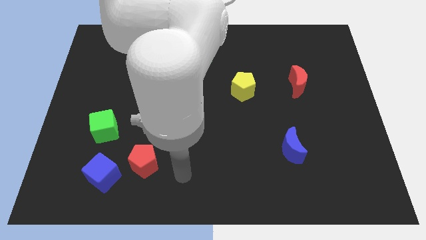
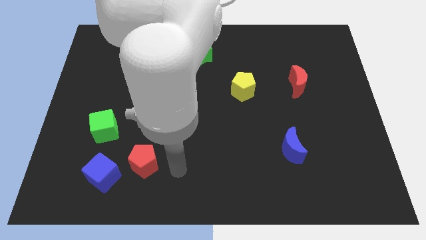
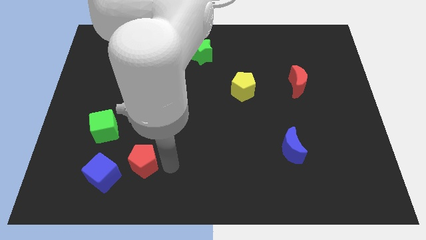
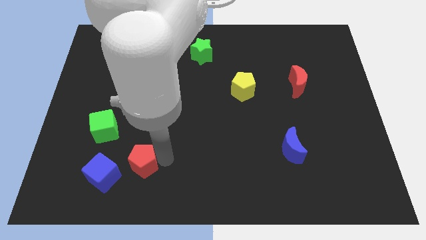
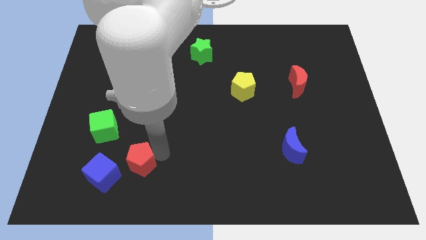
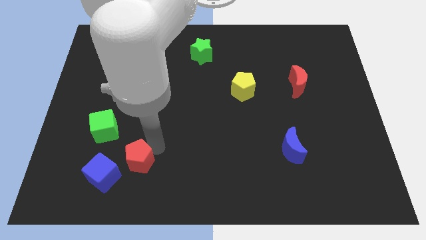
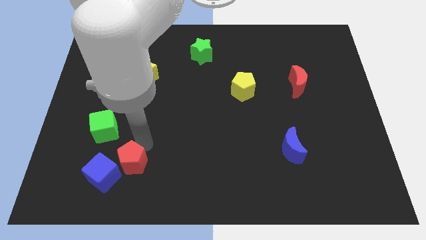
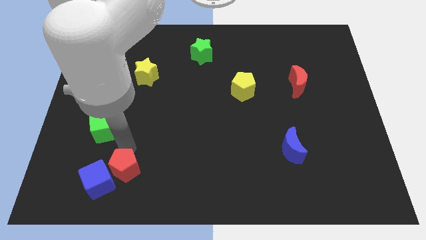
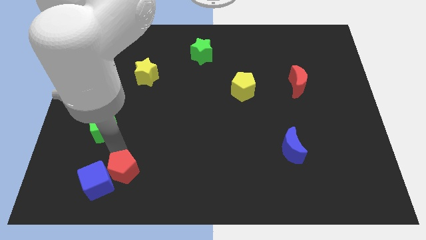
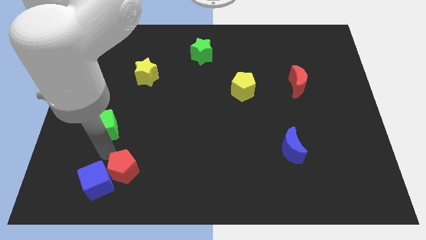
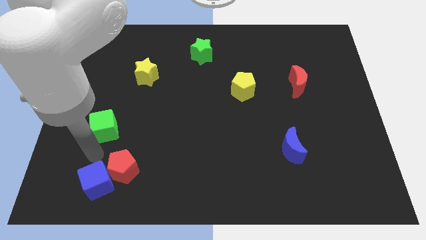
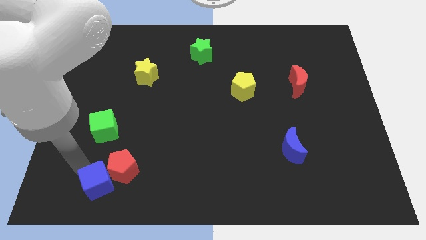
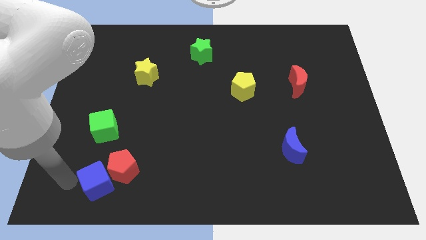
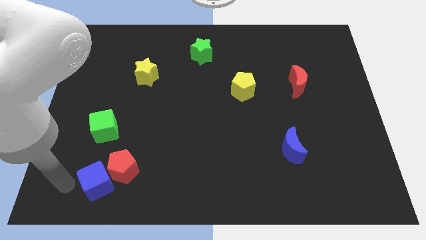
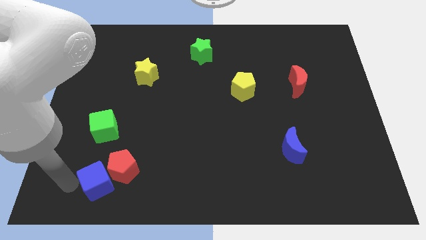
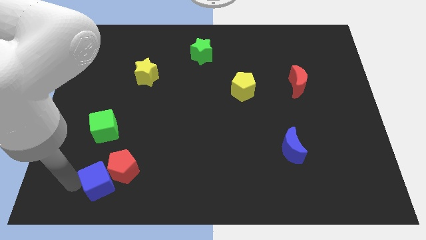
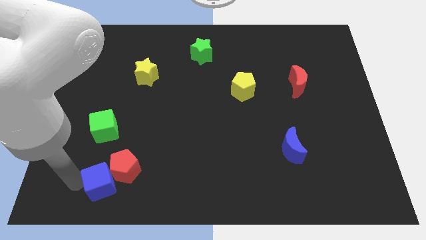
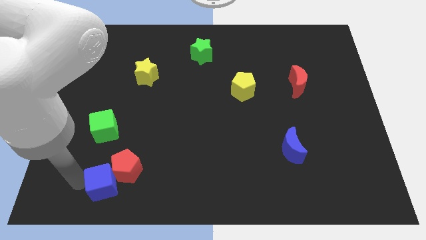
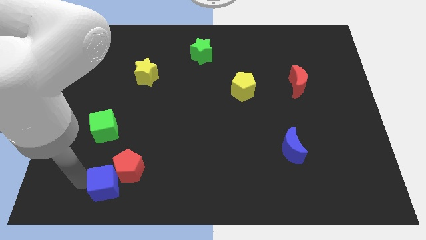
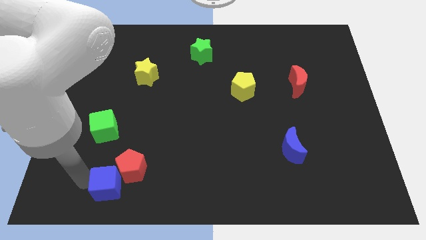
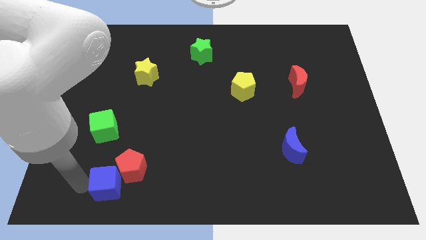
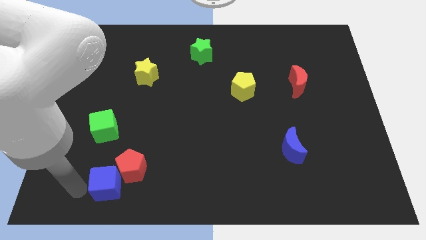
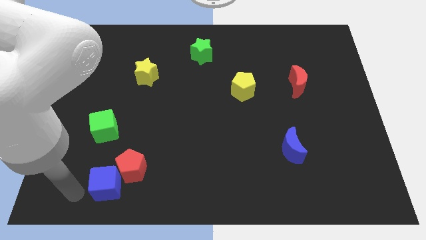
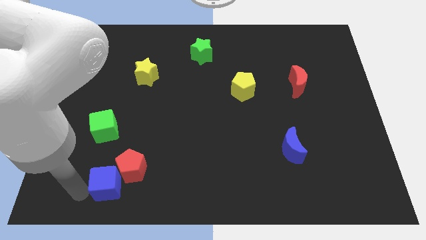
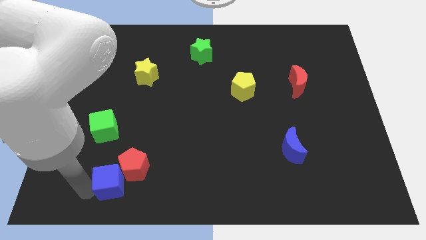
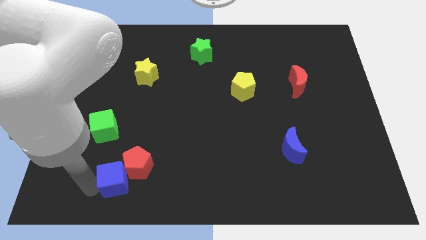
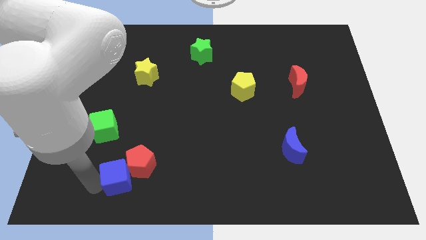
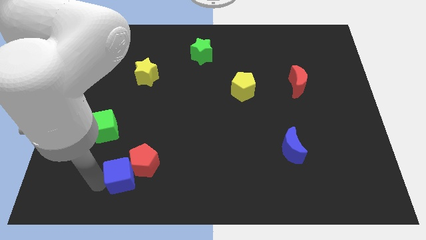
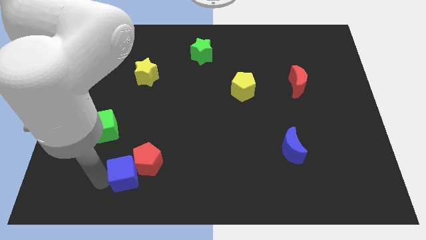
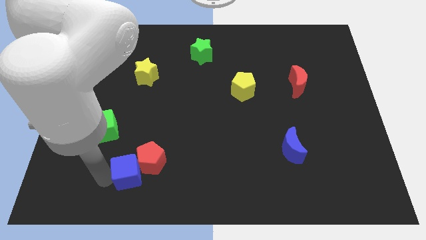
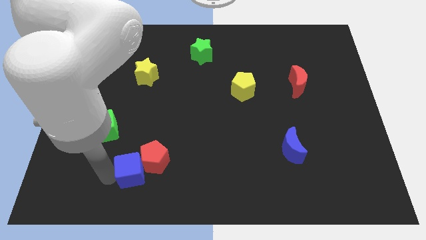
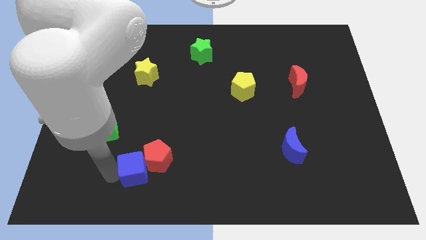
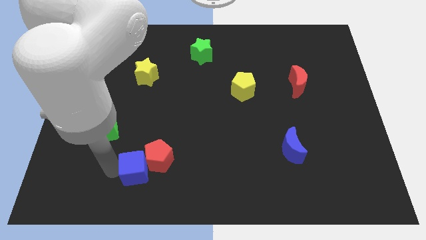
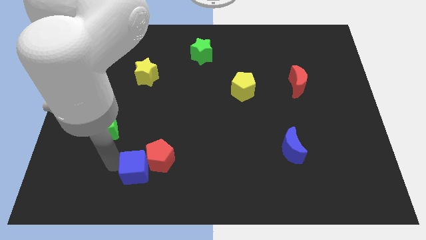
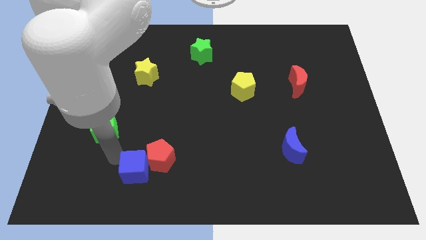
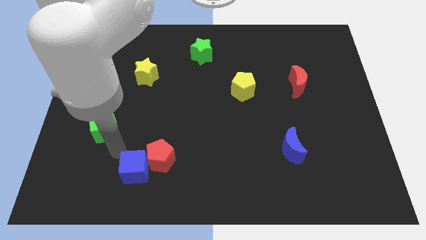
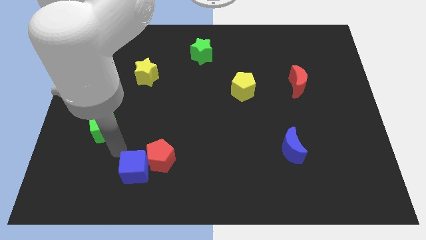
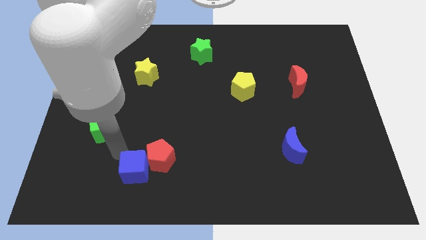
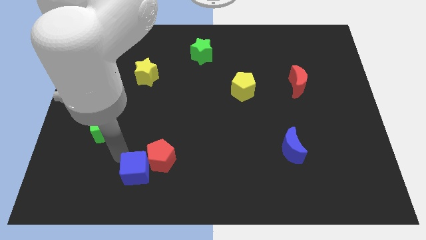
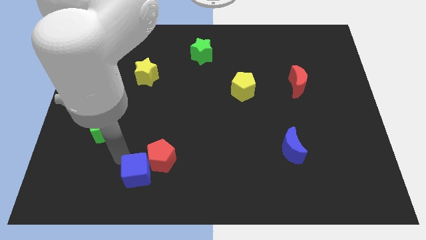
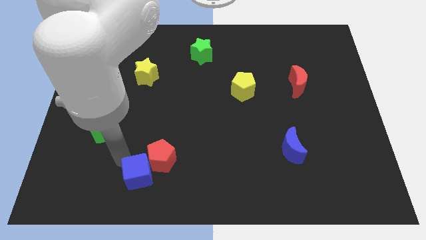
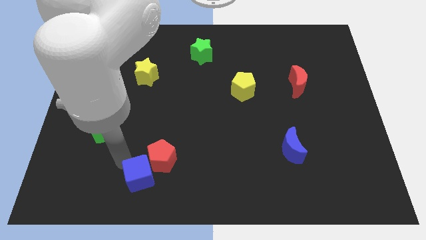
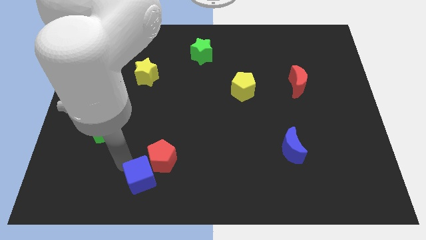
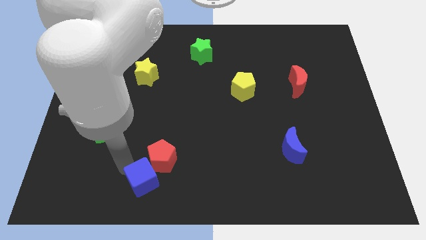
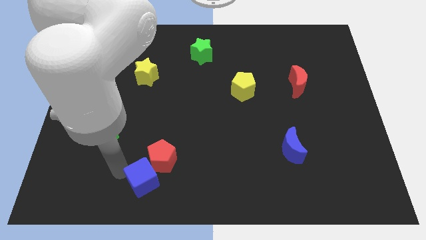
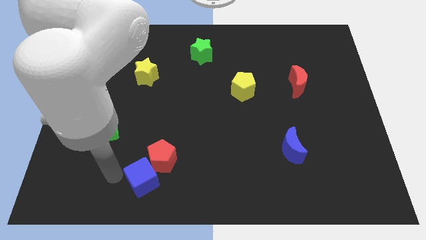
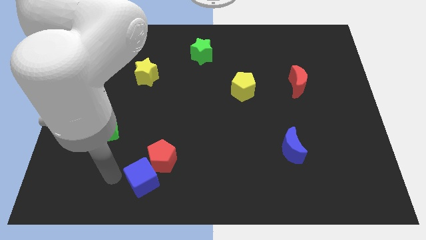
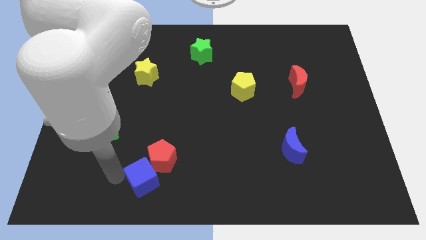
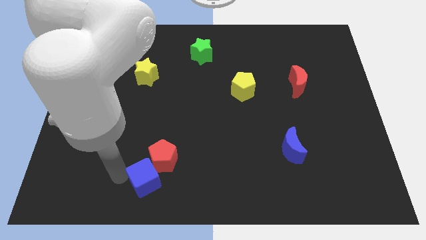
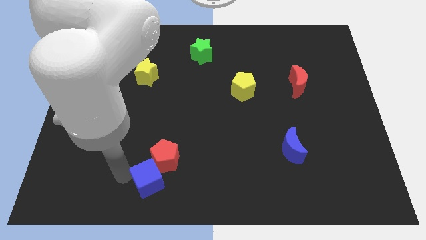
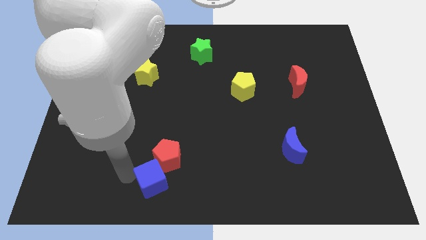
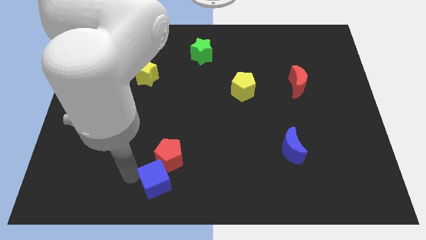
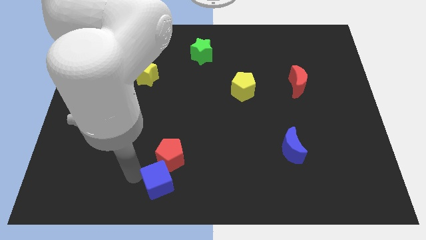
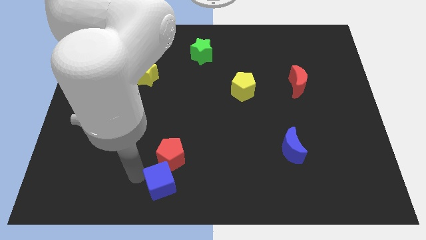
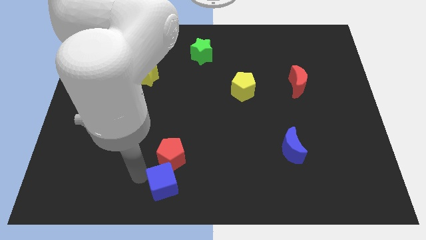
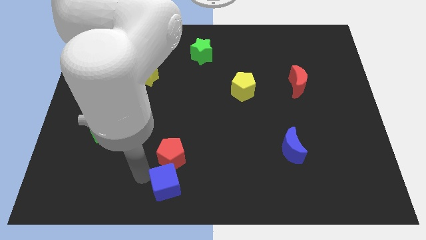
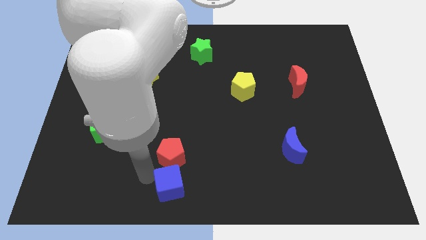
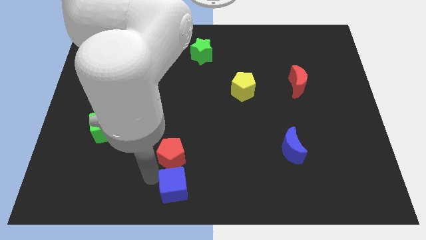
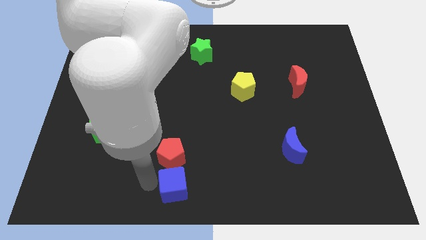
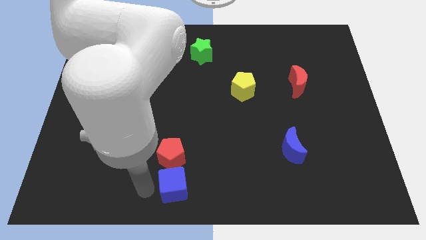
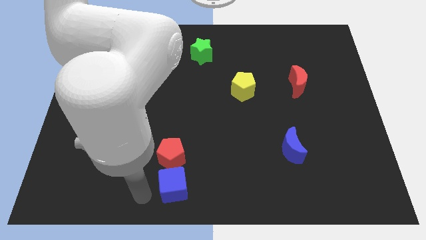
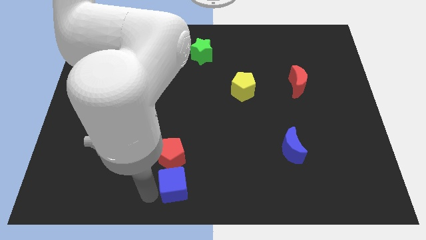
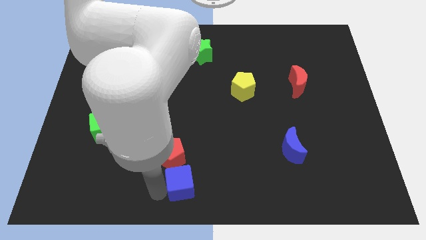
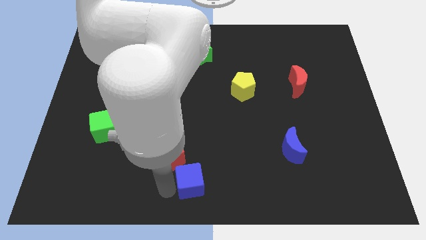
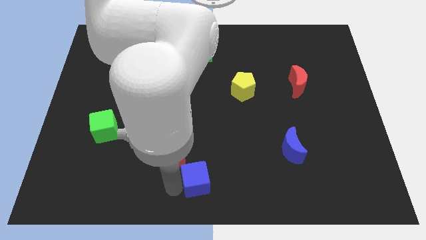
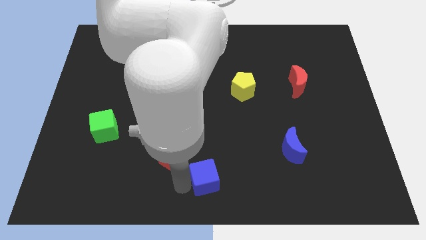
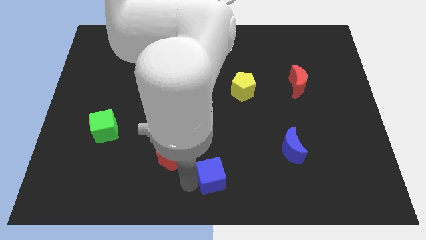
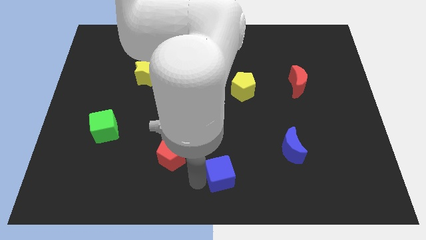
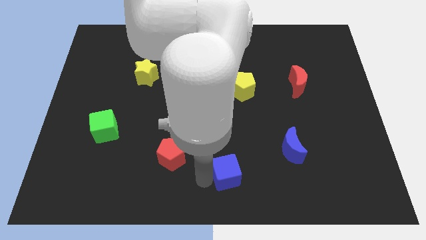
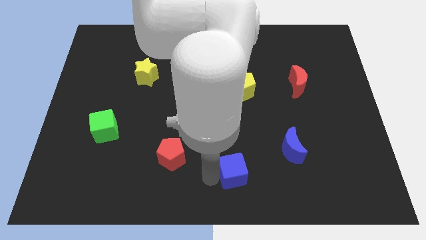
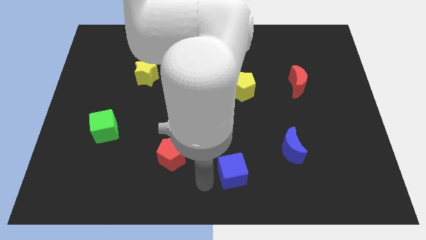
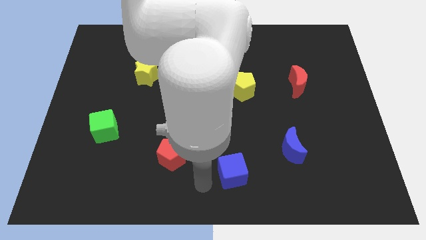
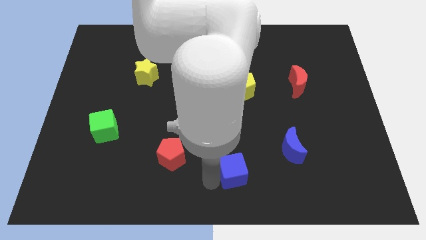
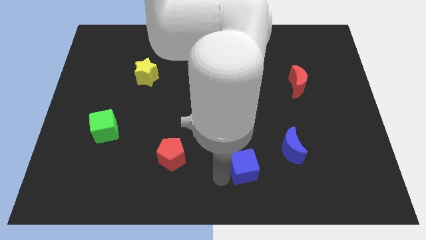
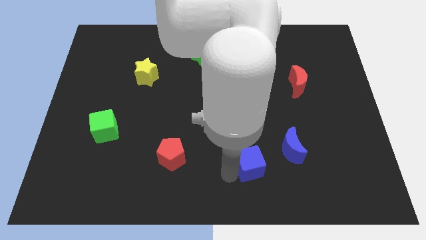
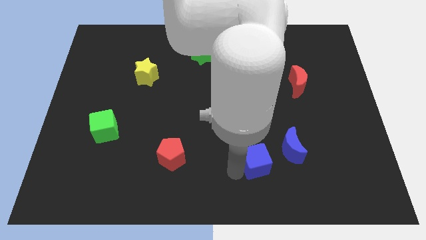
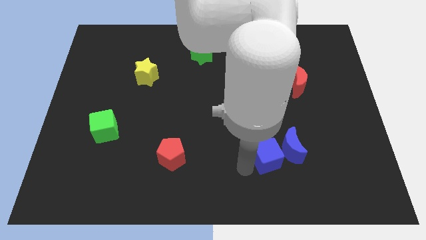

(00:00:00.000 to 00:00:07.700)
move the blue cube to the blue moon
